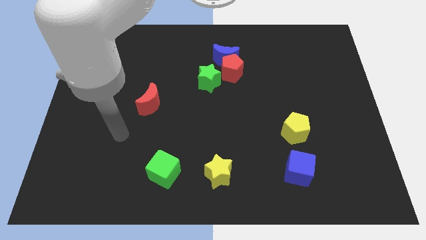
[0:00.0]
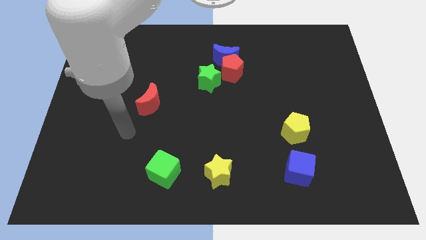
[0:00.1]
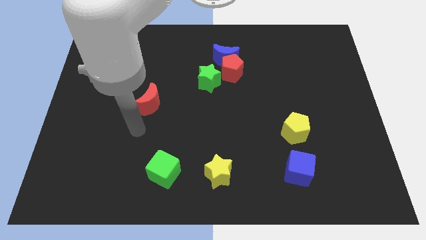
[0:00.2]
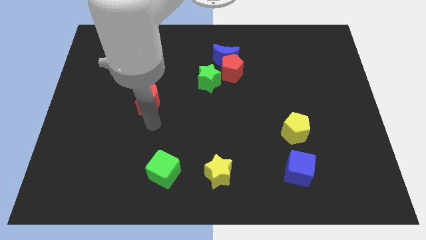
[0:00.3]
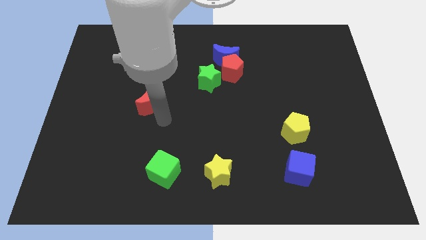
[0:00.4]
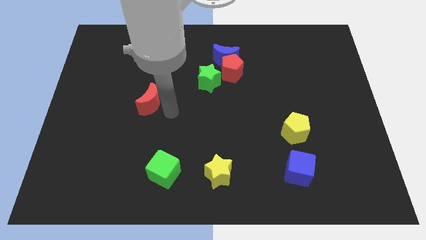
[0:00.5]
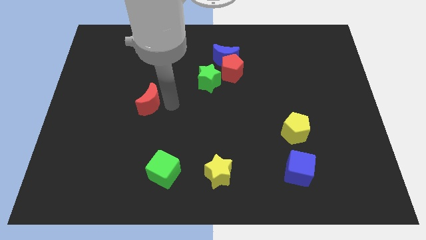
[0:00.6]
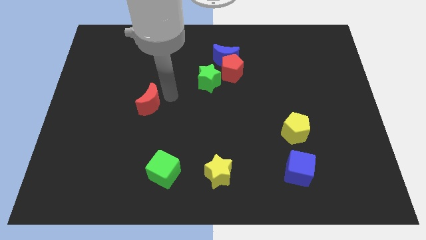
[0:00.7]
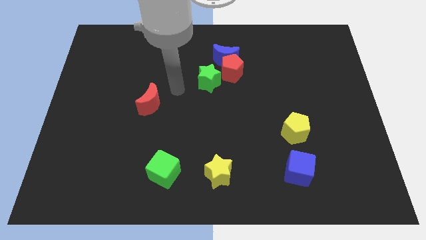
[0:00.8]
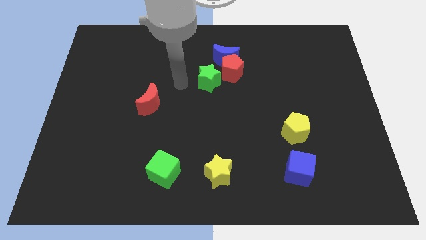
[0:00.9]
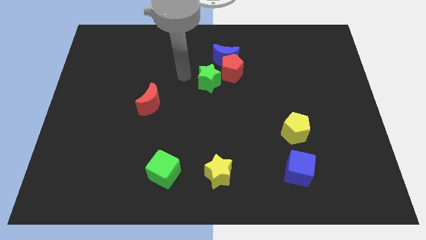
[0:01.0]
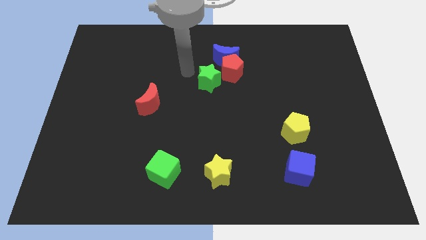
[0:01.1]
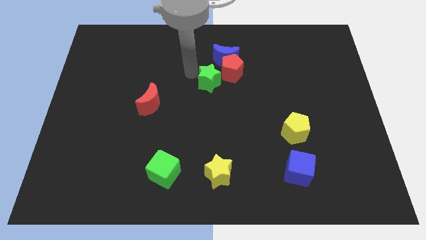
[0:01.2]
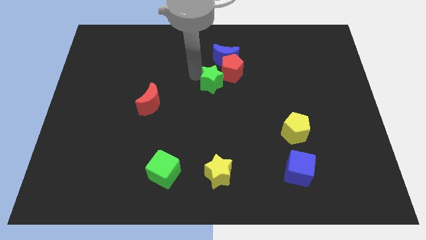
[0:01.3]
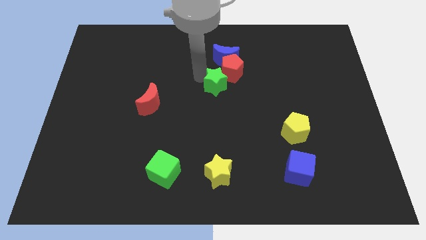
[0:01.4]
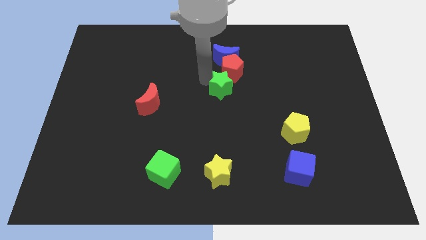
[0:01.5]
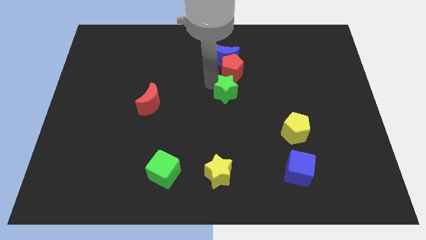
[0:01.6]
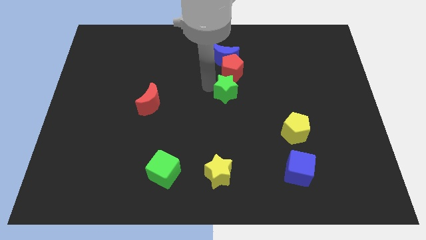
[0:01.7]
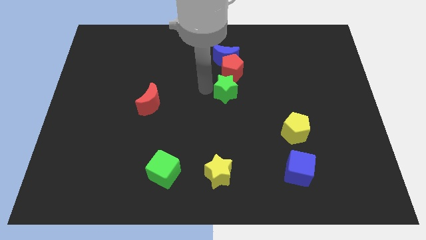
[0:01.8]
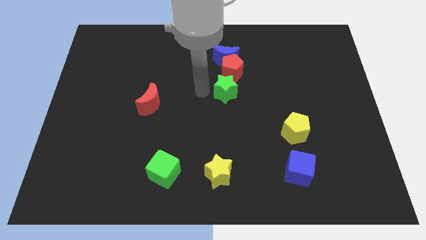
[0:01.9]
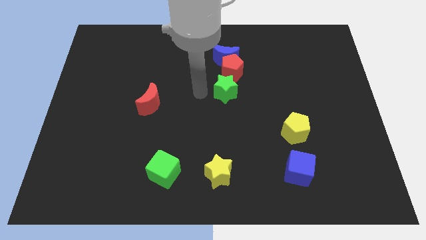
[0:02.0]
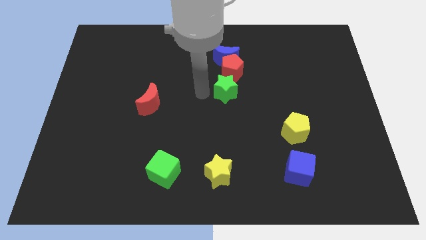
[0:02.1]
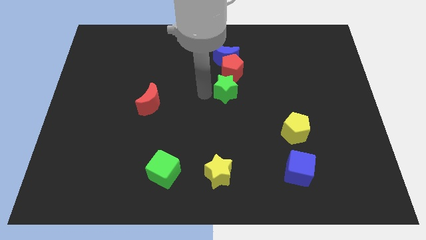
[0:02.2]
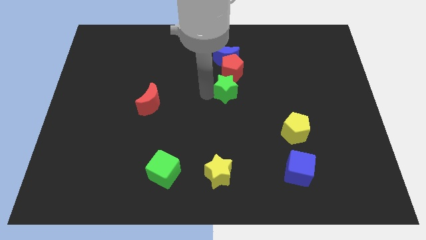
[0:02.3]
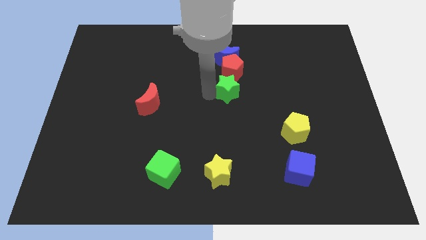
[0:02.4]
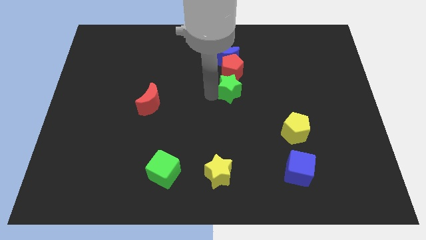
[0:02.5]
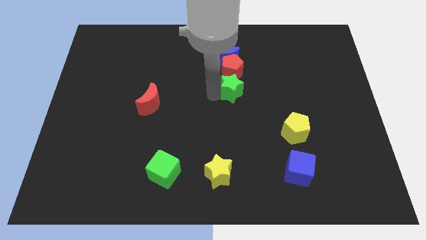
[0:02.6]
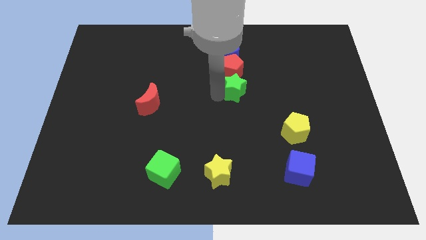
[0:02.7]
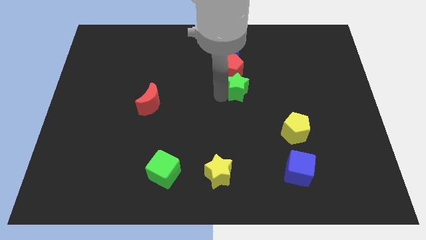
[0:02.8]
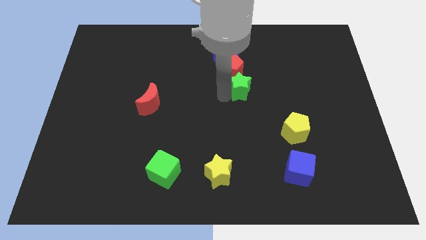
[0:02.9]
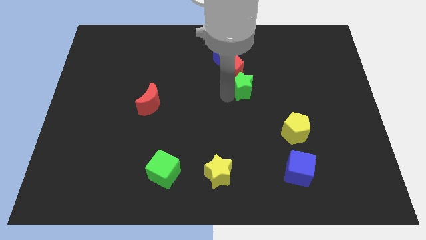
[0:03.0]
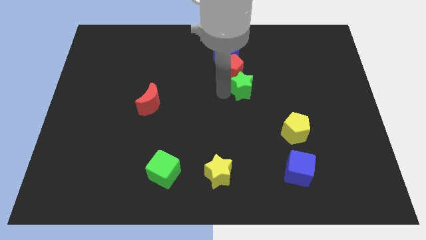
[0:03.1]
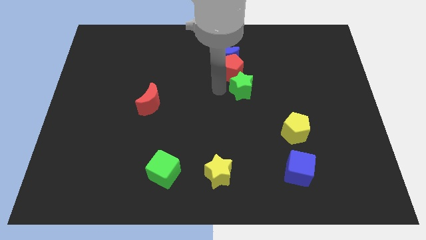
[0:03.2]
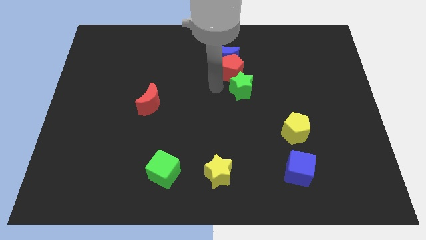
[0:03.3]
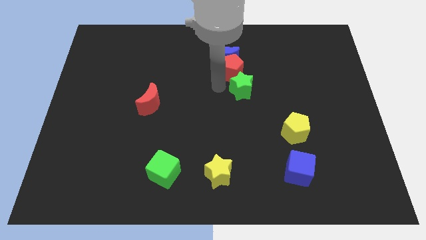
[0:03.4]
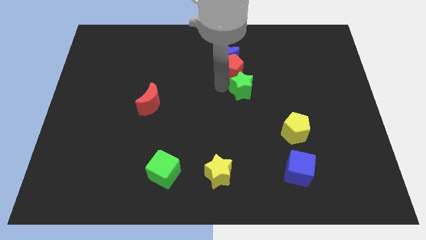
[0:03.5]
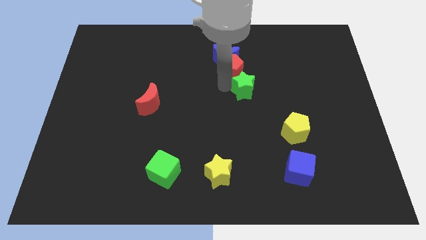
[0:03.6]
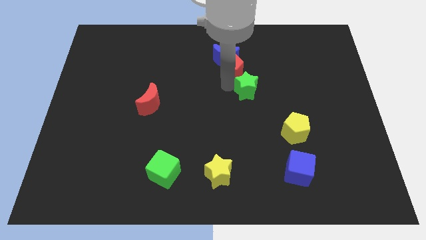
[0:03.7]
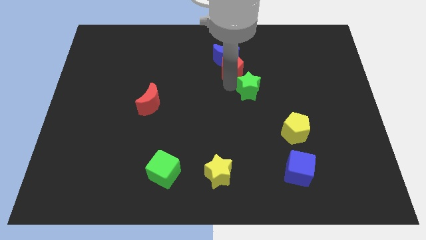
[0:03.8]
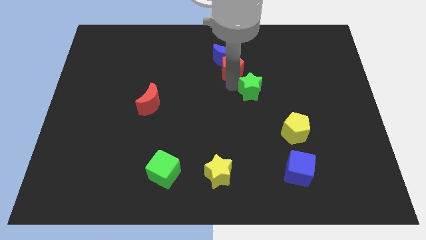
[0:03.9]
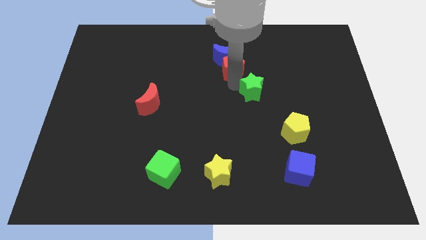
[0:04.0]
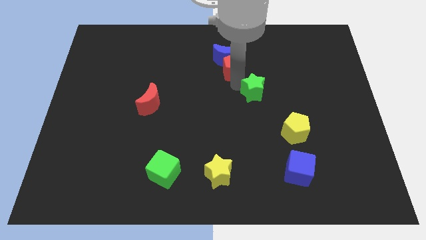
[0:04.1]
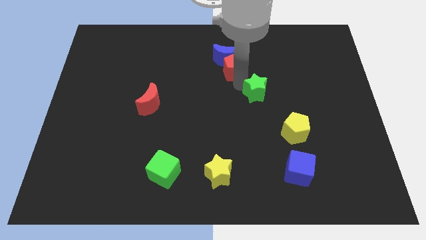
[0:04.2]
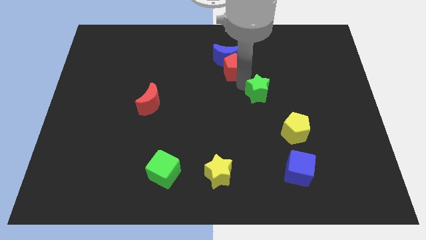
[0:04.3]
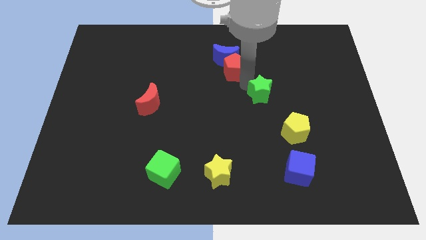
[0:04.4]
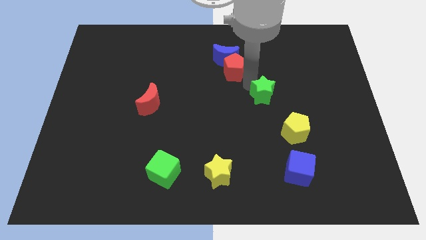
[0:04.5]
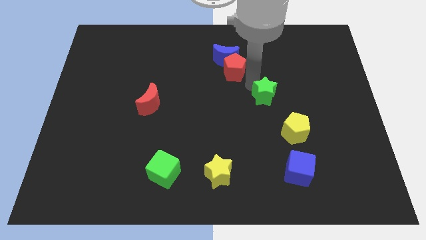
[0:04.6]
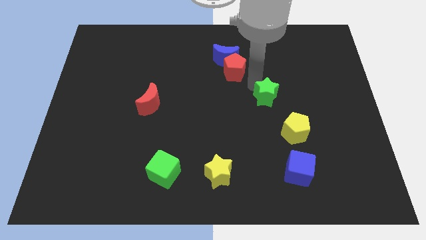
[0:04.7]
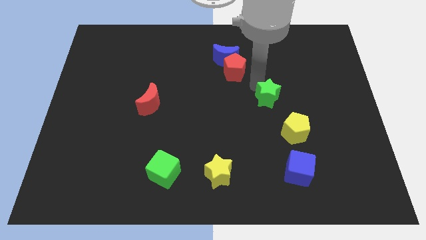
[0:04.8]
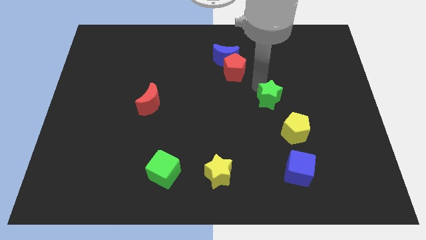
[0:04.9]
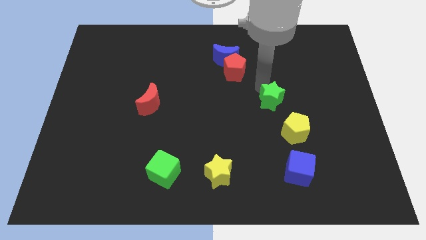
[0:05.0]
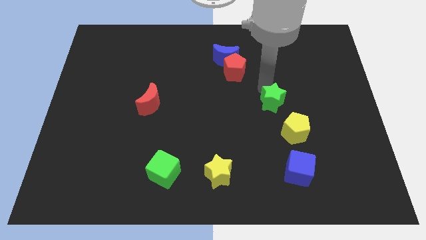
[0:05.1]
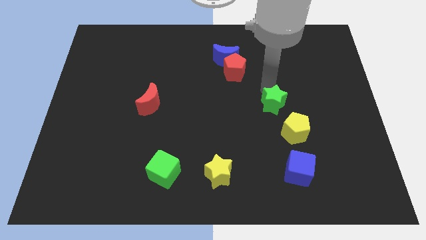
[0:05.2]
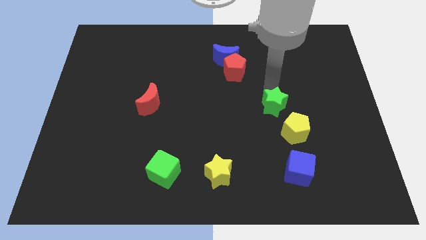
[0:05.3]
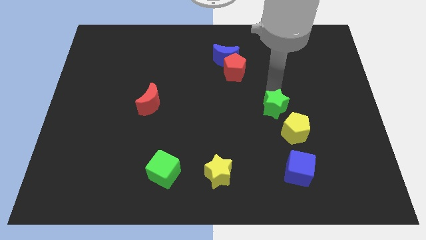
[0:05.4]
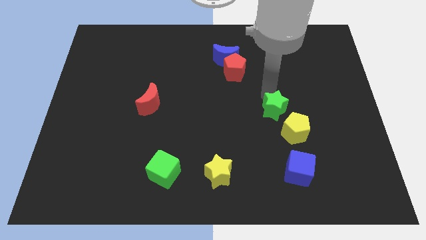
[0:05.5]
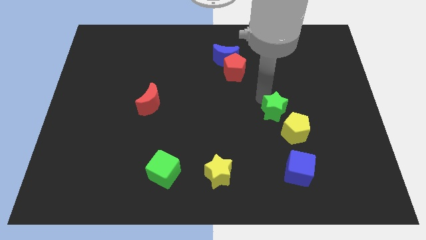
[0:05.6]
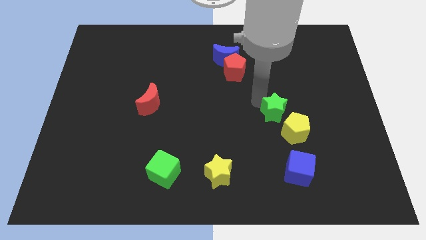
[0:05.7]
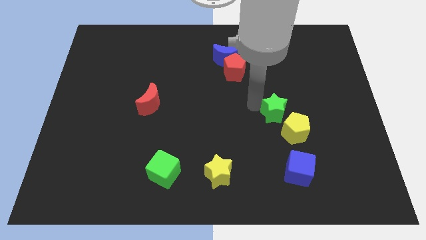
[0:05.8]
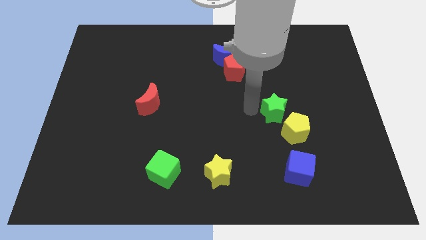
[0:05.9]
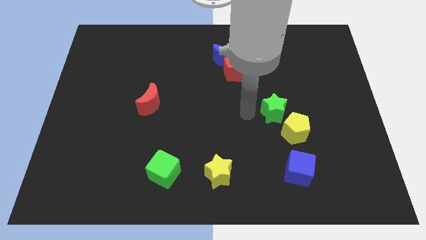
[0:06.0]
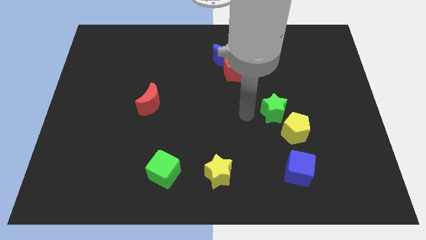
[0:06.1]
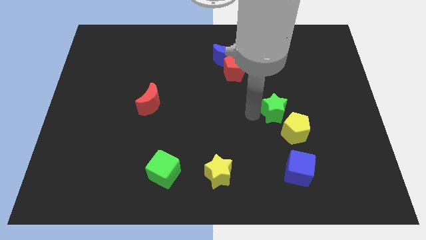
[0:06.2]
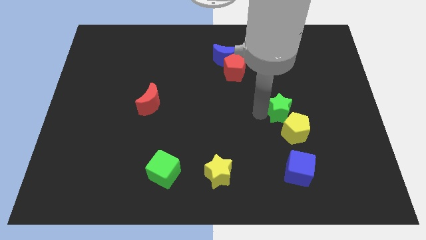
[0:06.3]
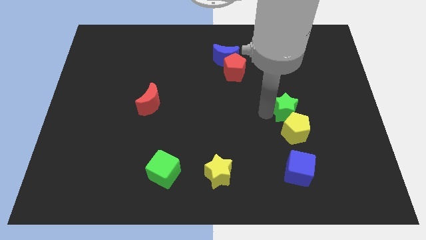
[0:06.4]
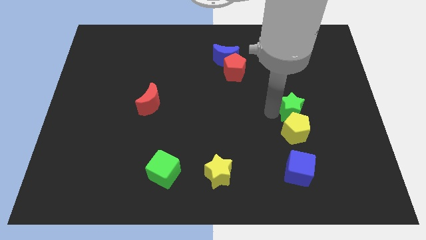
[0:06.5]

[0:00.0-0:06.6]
put the green star to the top right side of the yellow pentagon
